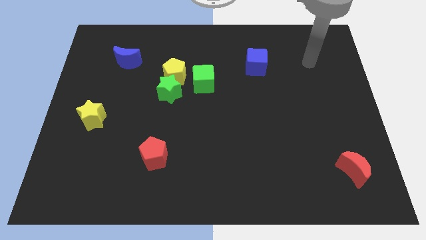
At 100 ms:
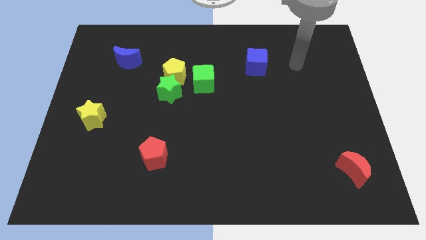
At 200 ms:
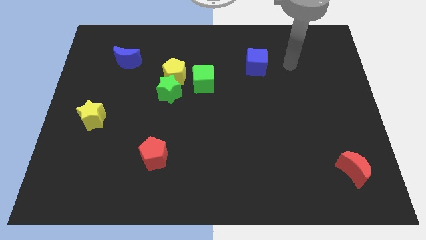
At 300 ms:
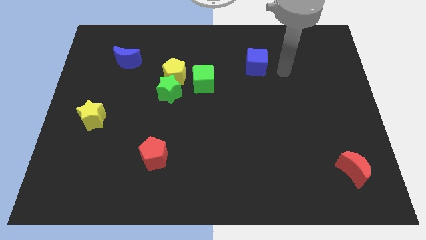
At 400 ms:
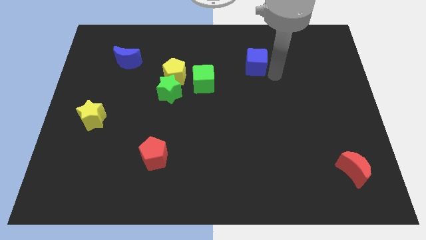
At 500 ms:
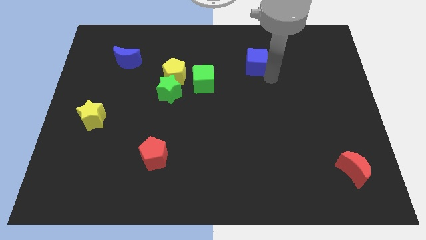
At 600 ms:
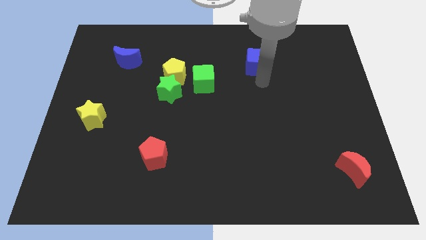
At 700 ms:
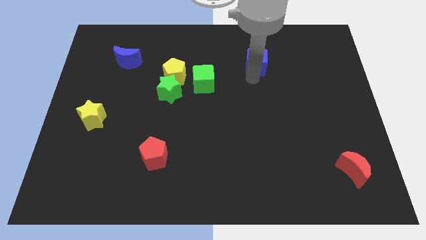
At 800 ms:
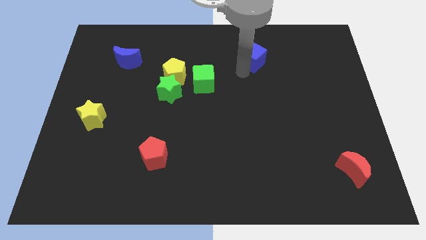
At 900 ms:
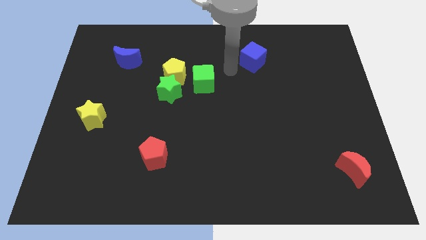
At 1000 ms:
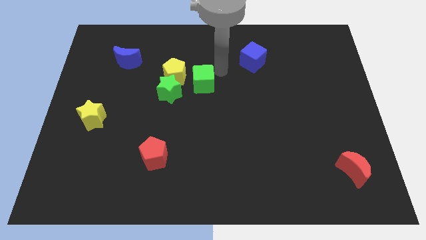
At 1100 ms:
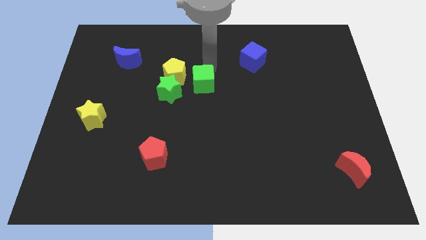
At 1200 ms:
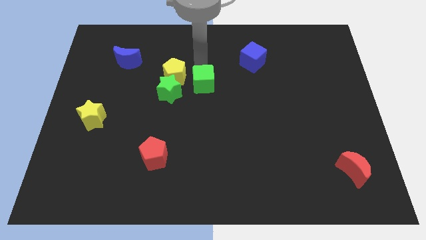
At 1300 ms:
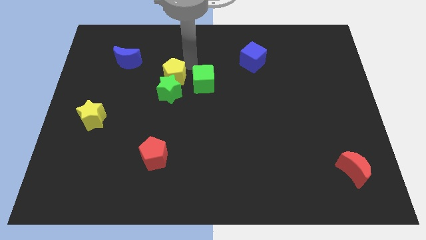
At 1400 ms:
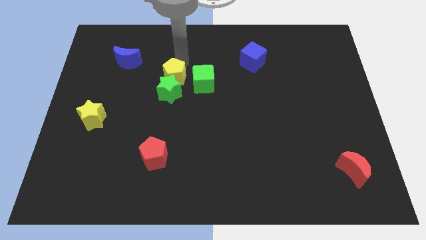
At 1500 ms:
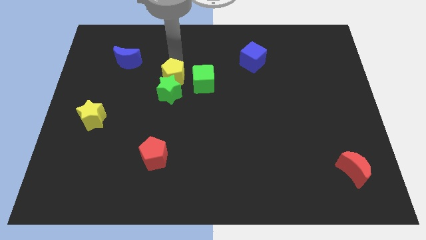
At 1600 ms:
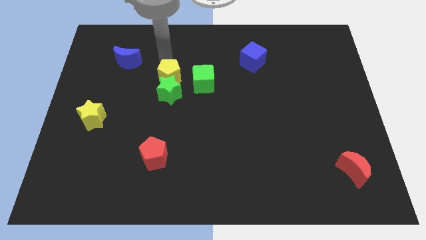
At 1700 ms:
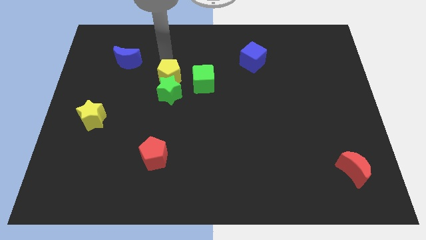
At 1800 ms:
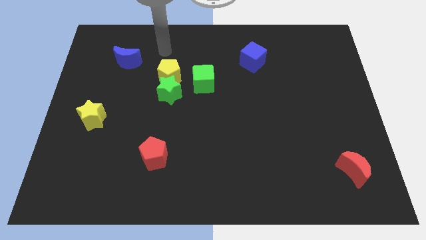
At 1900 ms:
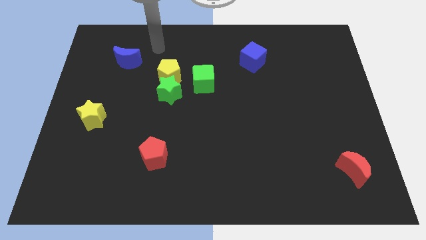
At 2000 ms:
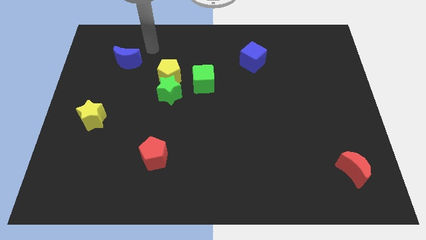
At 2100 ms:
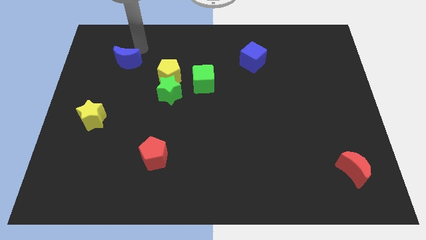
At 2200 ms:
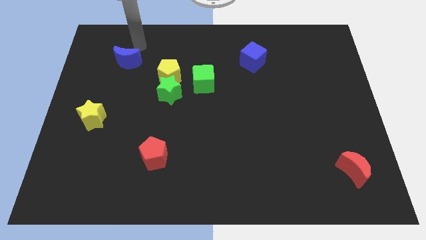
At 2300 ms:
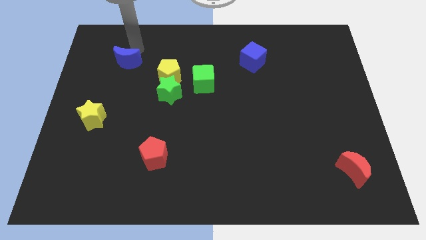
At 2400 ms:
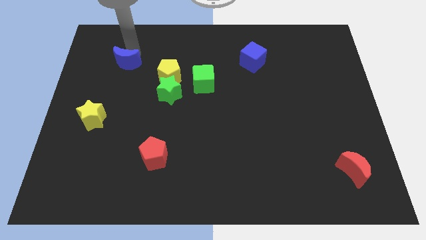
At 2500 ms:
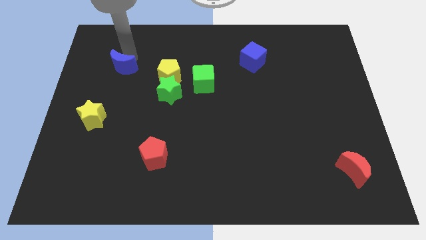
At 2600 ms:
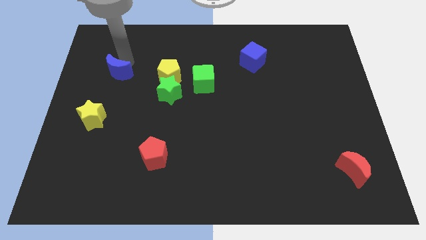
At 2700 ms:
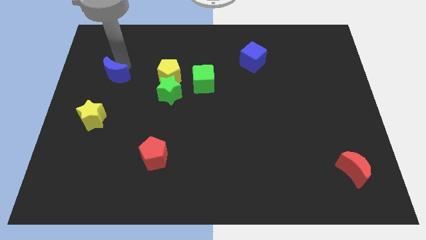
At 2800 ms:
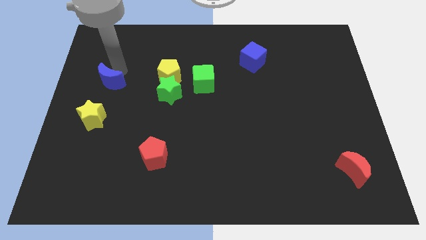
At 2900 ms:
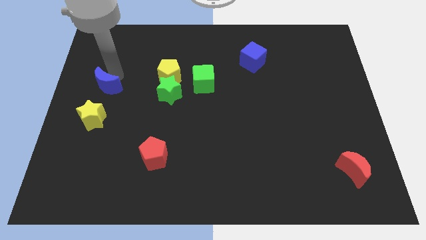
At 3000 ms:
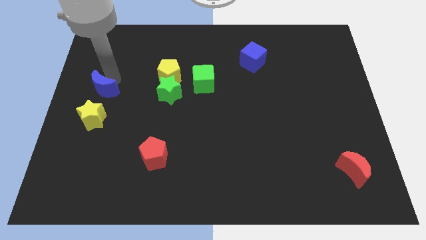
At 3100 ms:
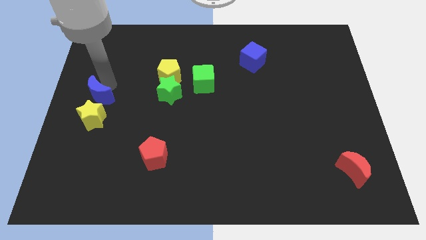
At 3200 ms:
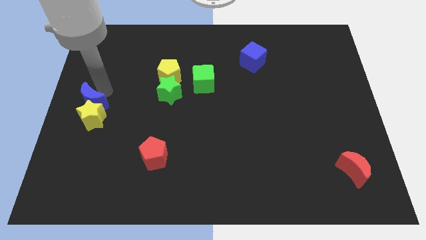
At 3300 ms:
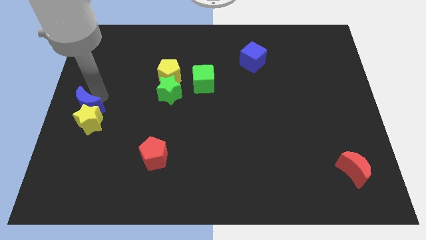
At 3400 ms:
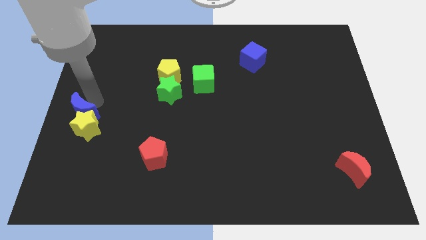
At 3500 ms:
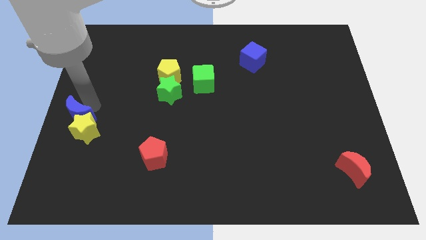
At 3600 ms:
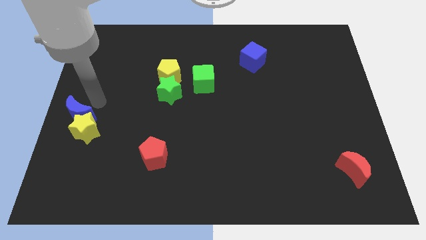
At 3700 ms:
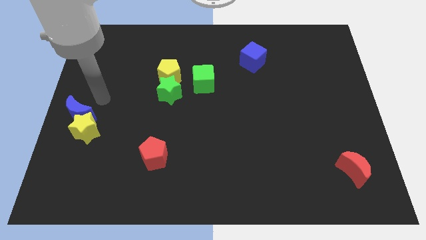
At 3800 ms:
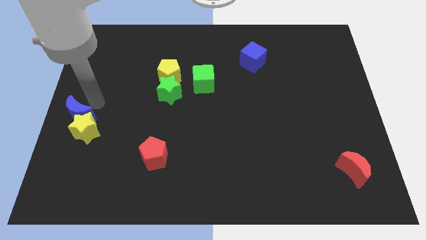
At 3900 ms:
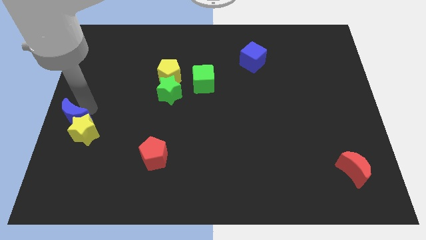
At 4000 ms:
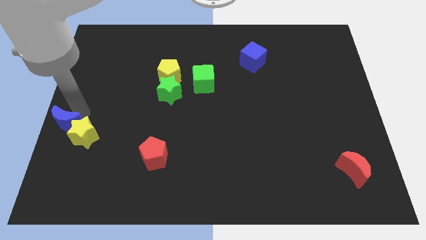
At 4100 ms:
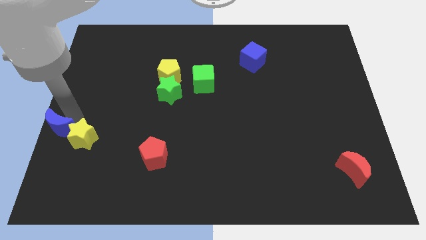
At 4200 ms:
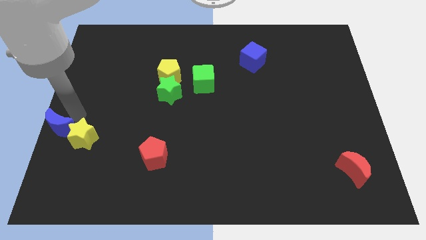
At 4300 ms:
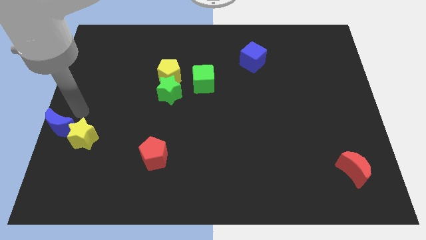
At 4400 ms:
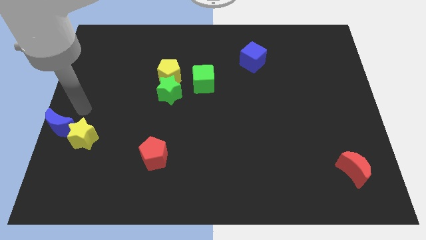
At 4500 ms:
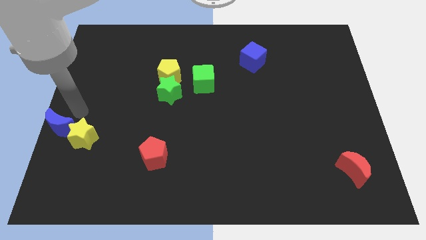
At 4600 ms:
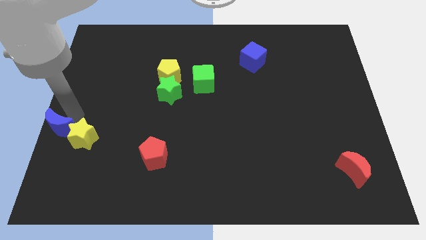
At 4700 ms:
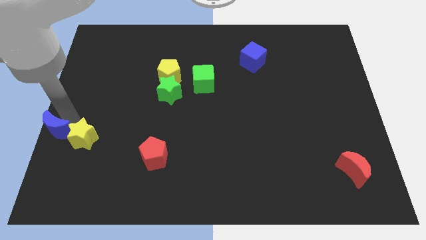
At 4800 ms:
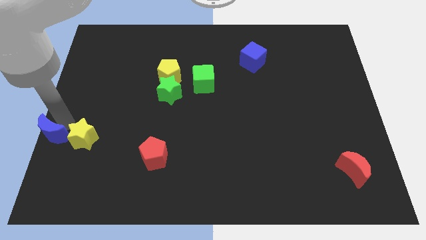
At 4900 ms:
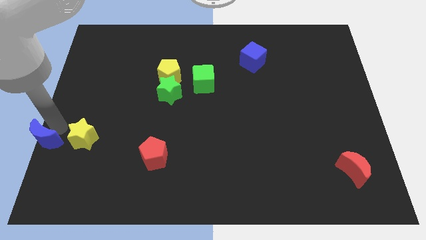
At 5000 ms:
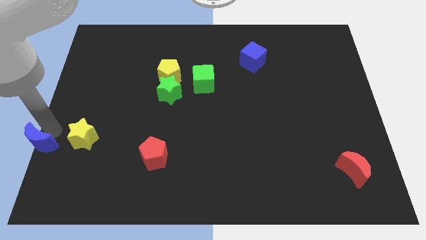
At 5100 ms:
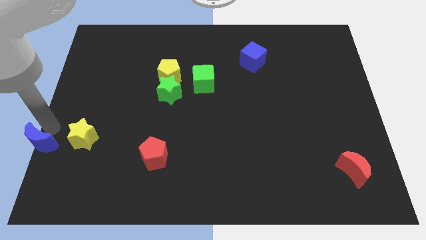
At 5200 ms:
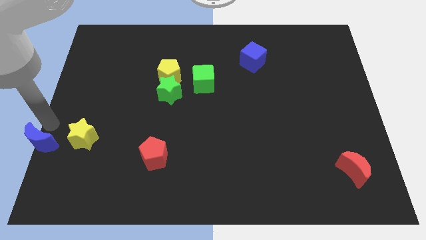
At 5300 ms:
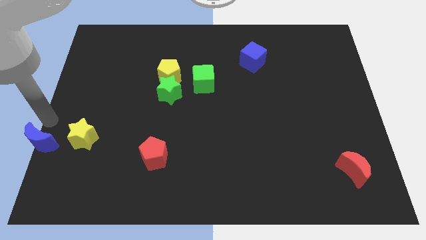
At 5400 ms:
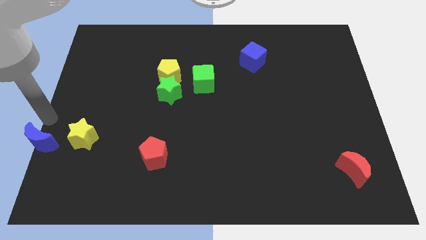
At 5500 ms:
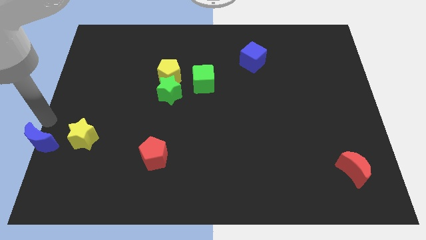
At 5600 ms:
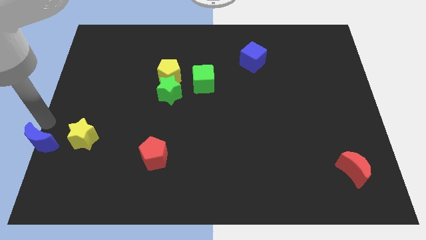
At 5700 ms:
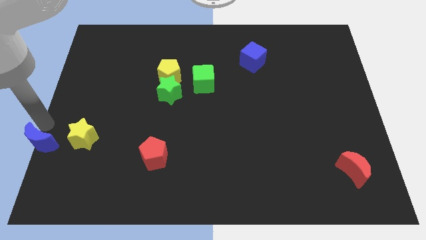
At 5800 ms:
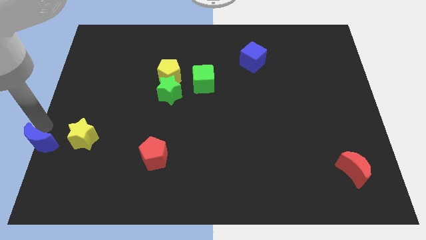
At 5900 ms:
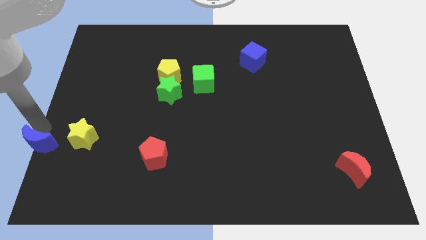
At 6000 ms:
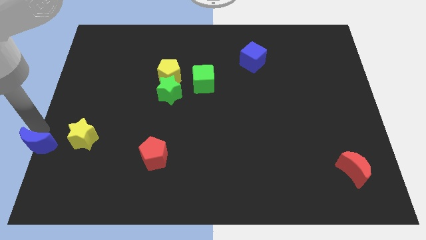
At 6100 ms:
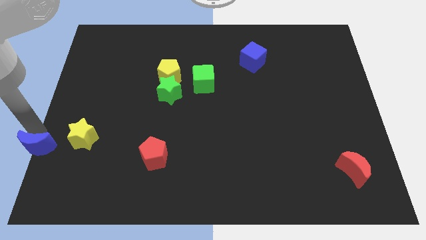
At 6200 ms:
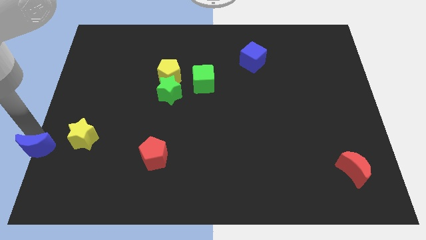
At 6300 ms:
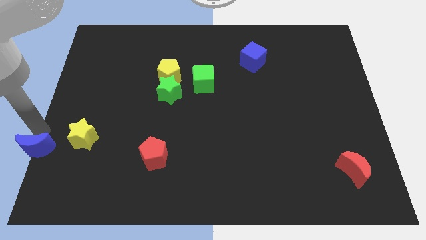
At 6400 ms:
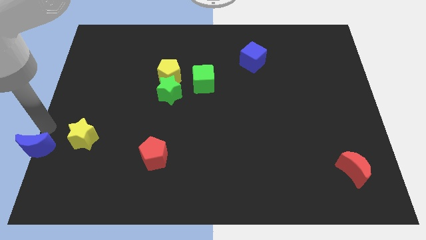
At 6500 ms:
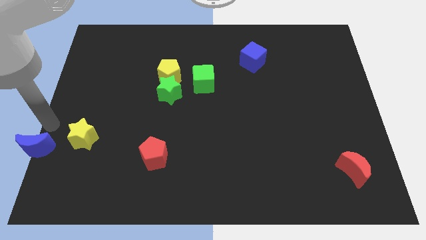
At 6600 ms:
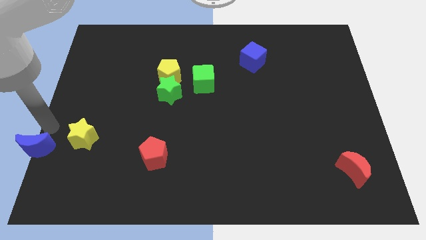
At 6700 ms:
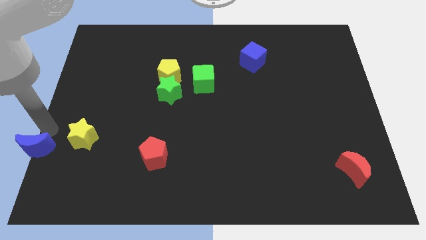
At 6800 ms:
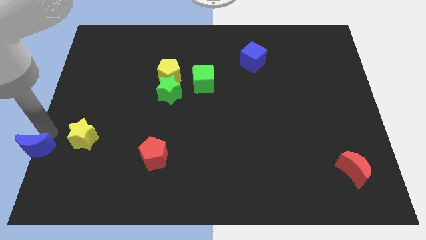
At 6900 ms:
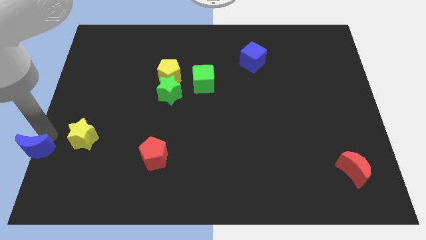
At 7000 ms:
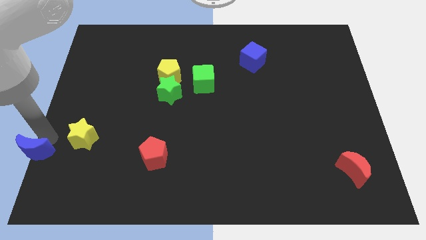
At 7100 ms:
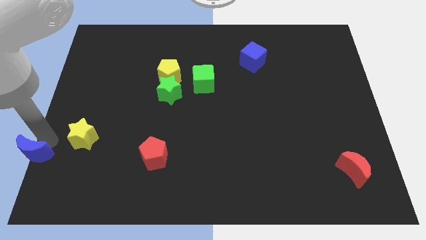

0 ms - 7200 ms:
push the blue moon to the bottom left corner
